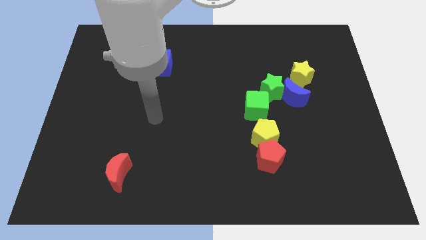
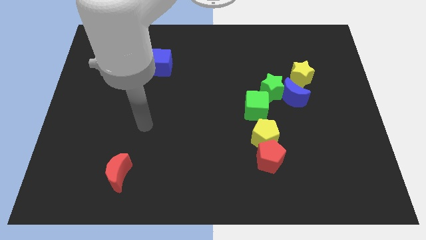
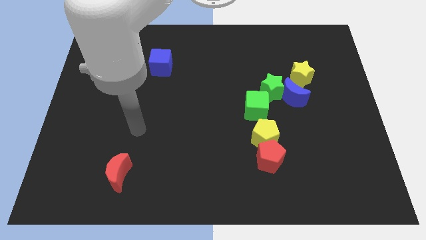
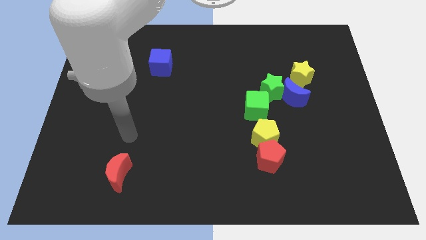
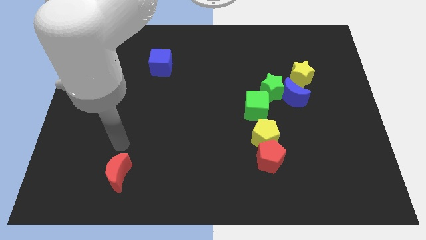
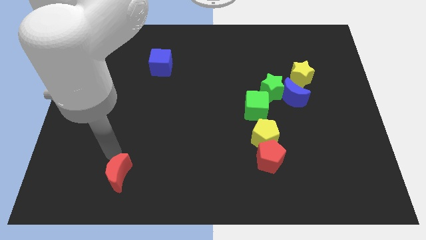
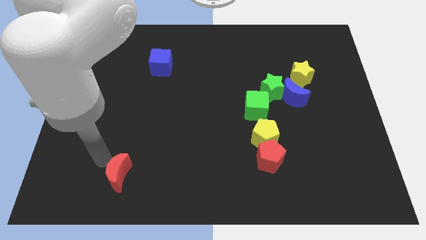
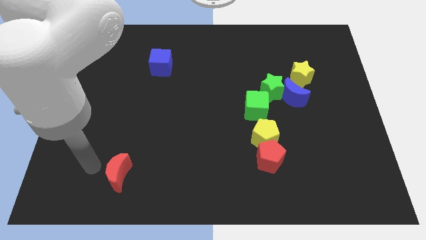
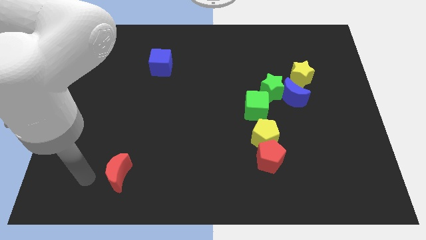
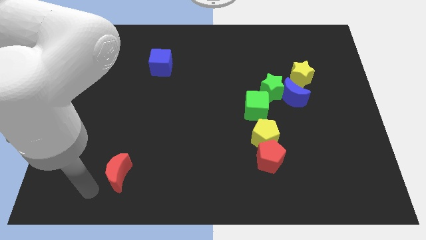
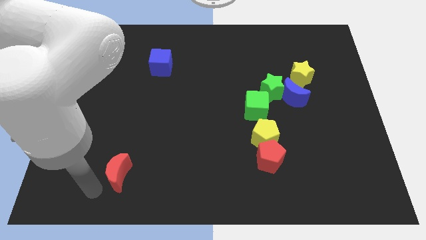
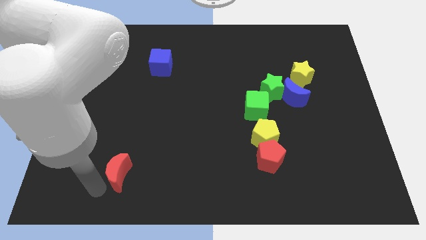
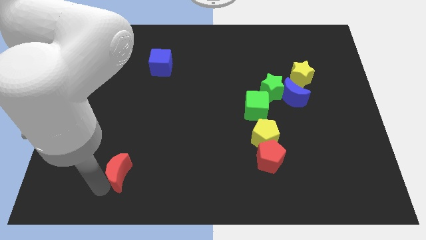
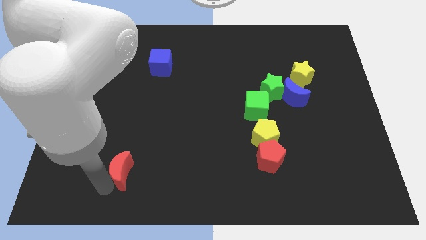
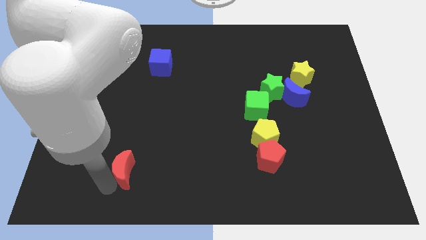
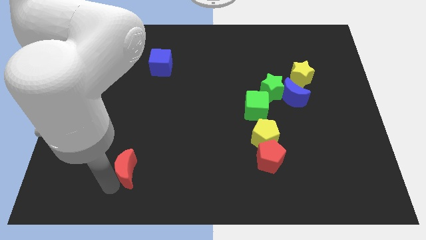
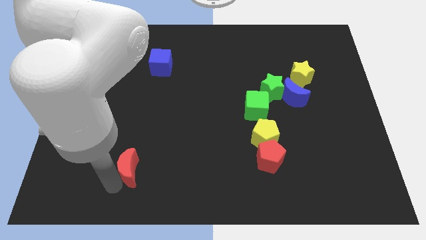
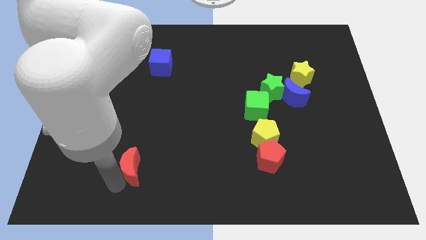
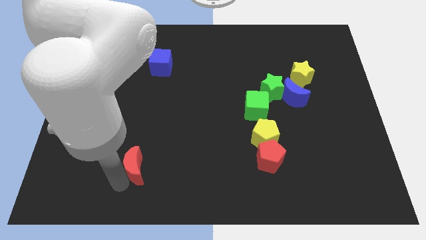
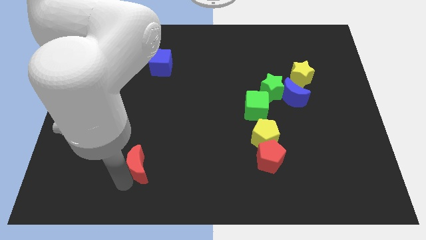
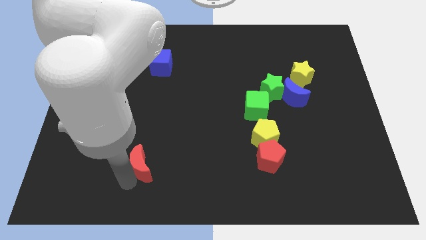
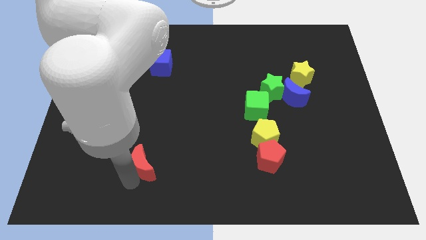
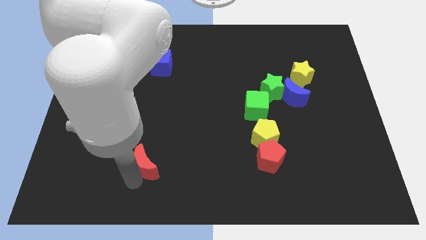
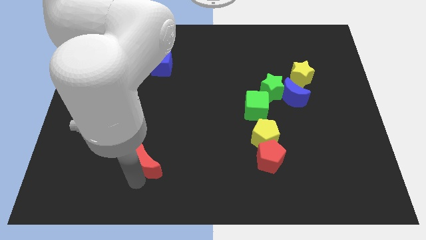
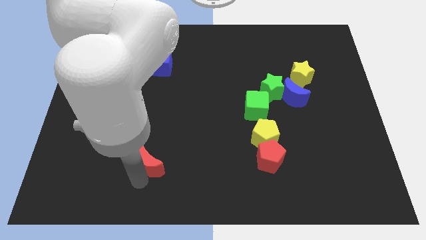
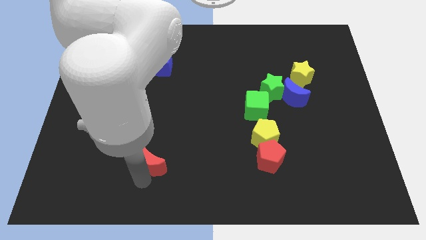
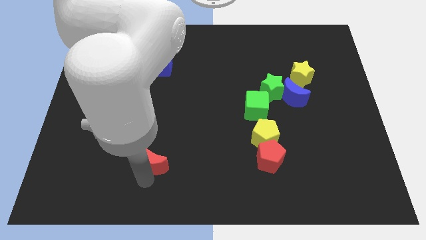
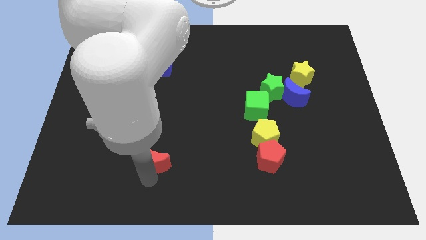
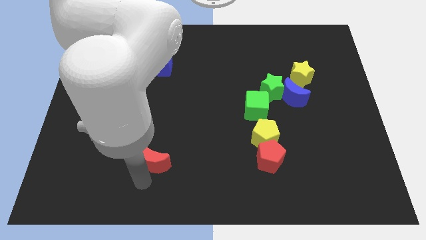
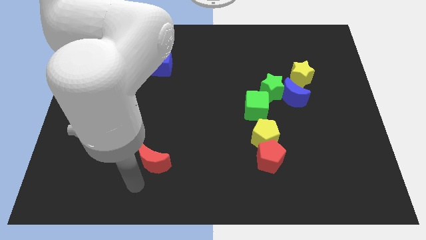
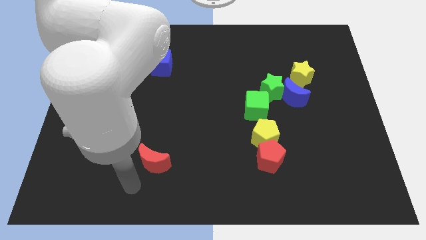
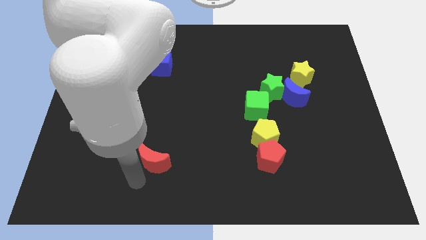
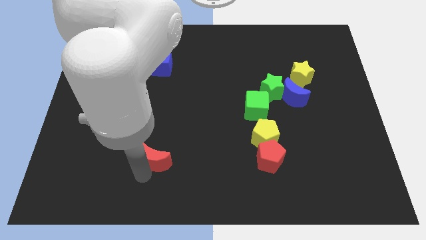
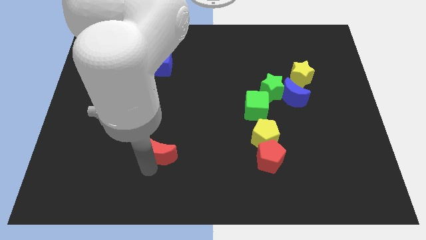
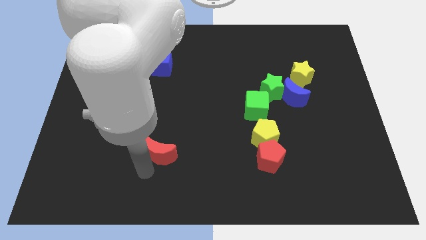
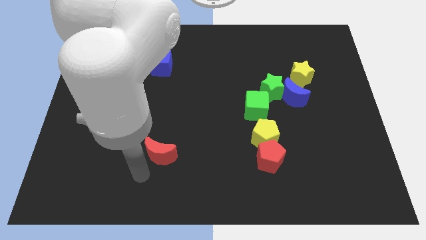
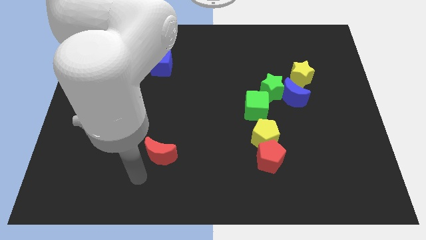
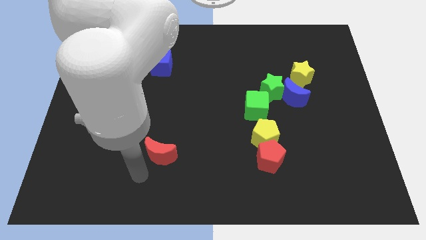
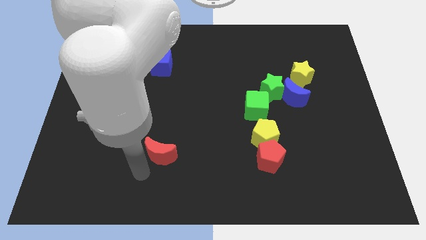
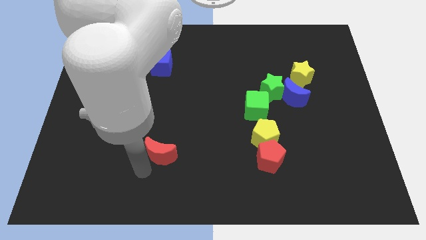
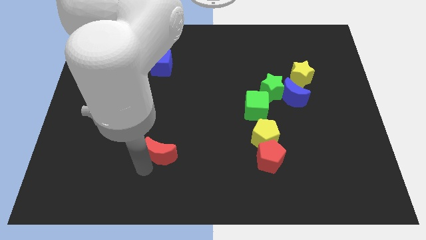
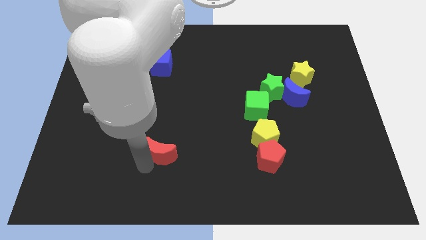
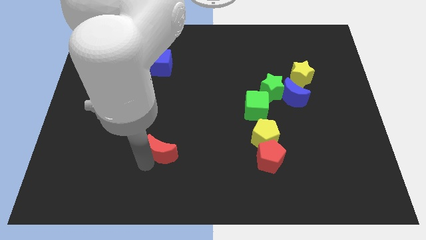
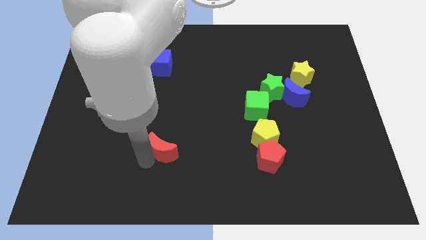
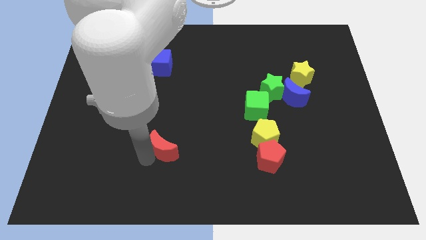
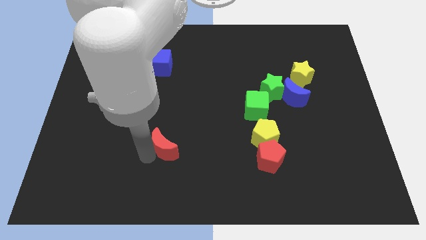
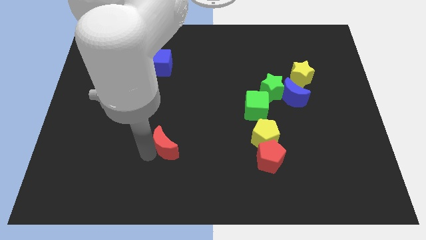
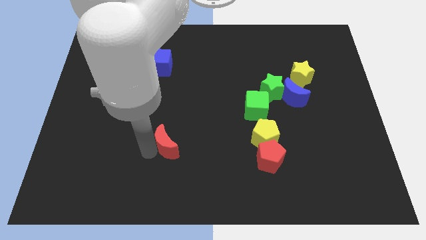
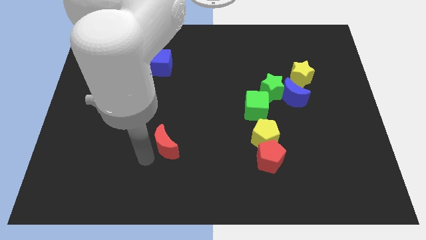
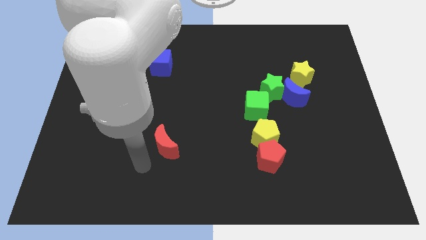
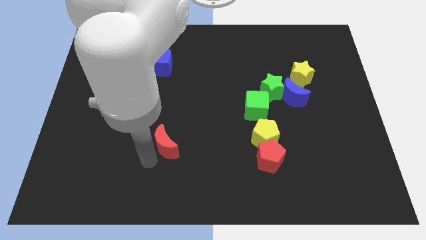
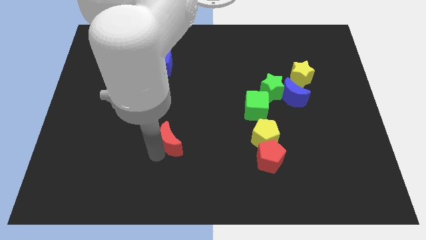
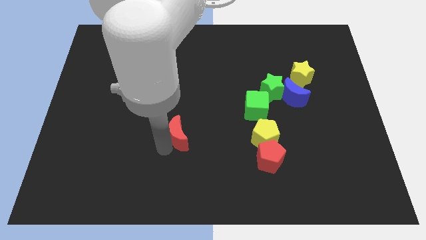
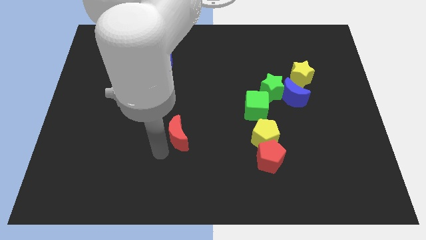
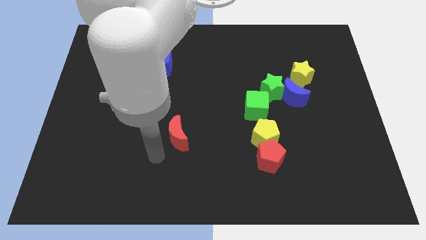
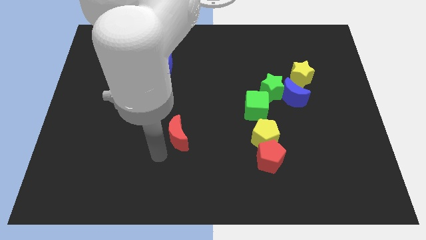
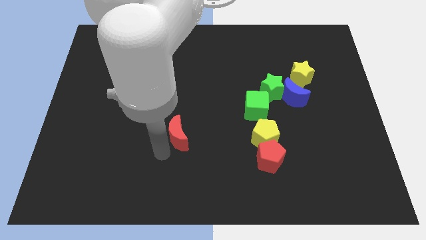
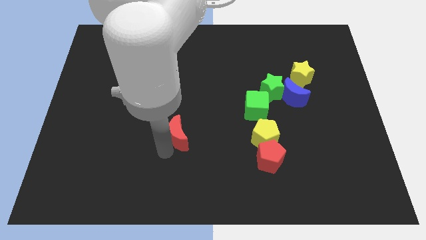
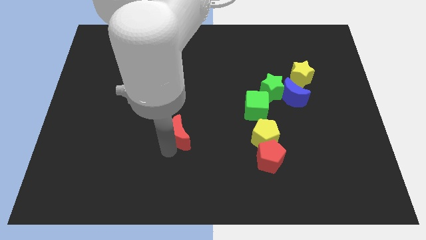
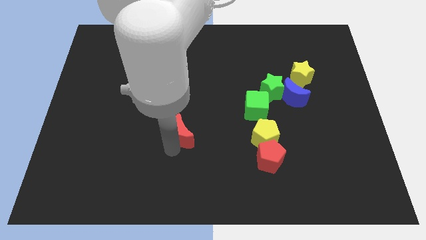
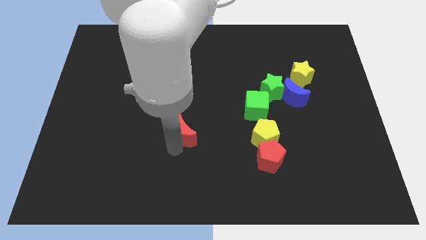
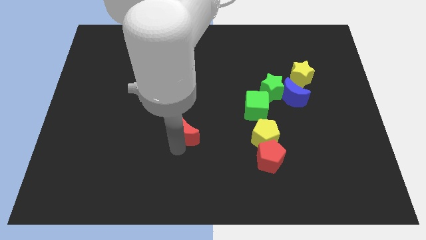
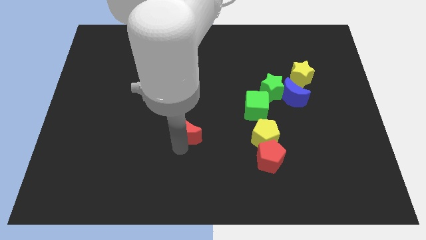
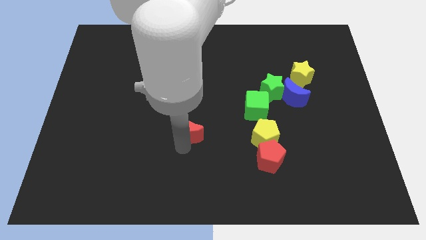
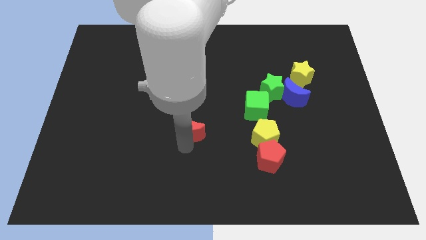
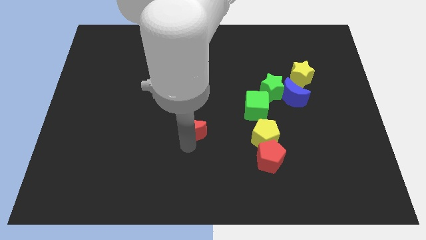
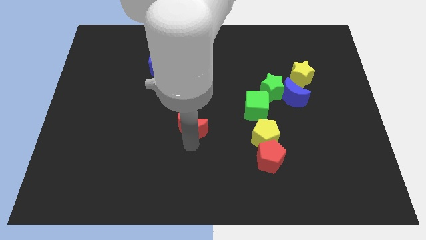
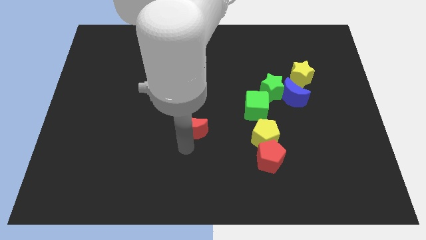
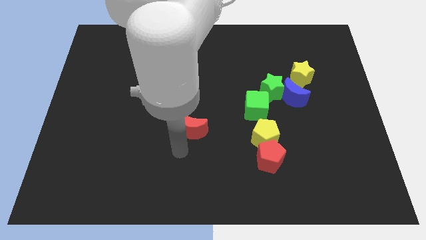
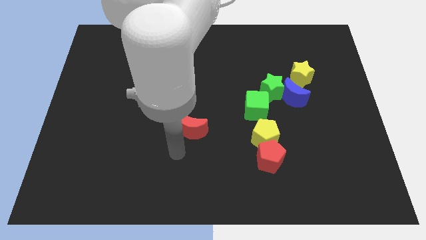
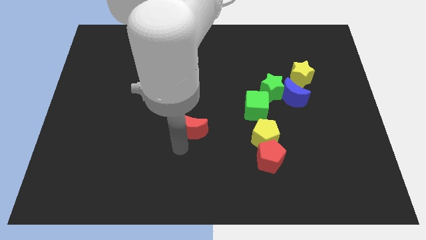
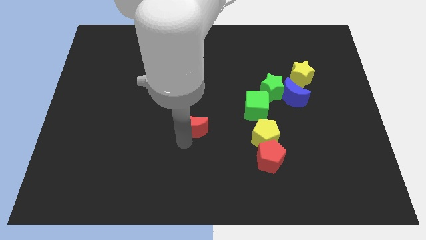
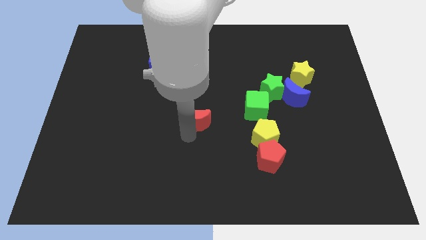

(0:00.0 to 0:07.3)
push the red moon up and right diagonally

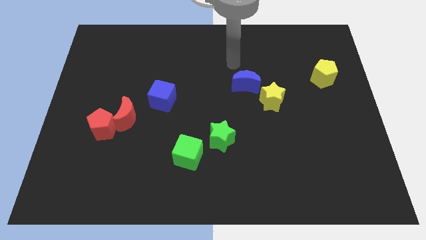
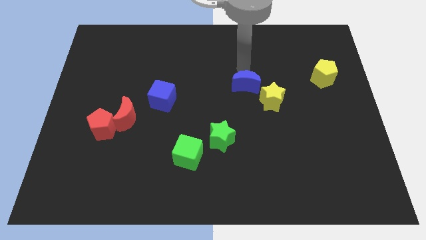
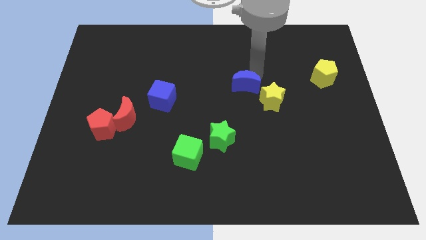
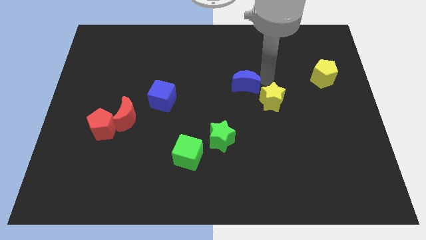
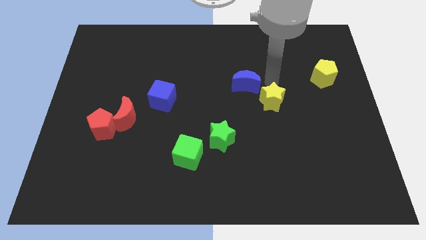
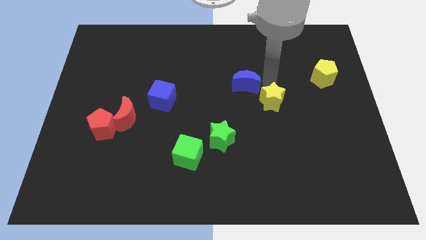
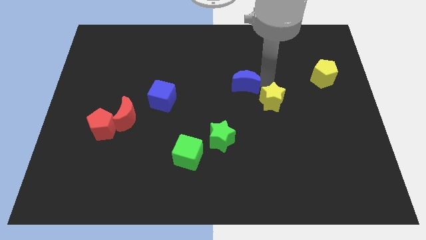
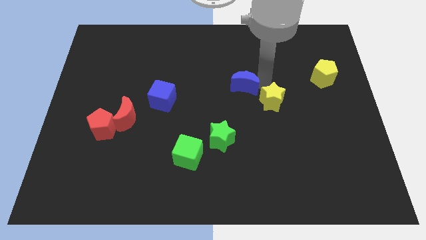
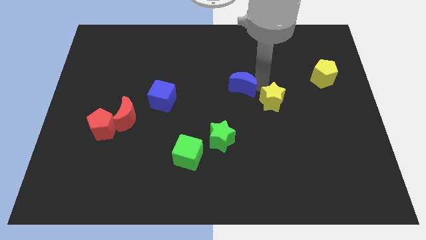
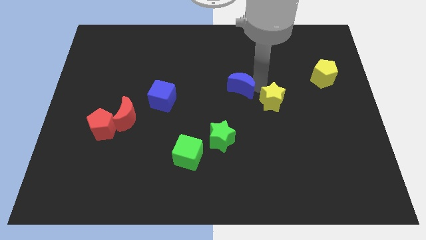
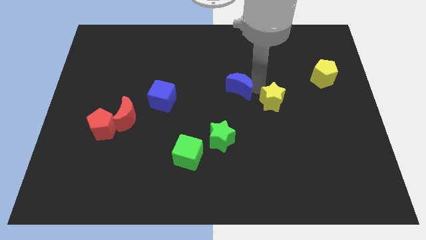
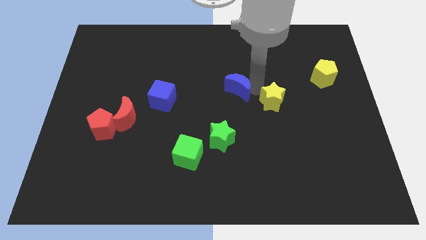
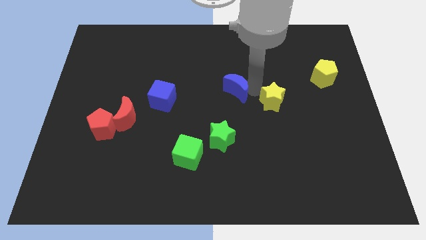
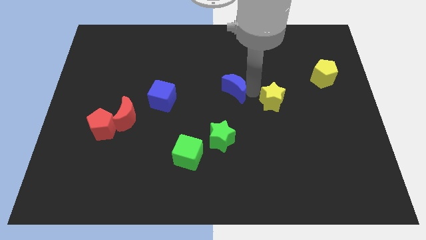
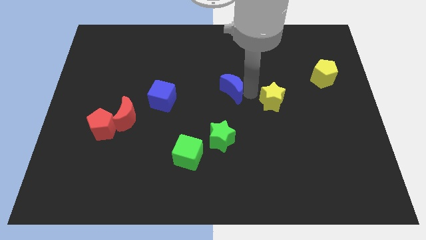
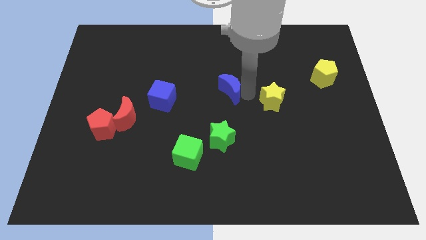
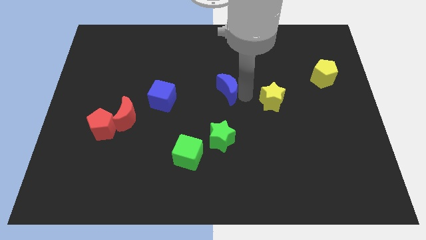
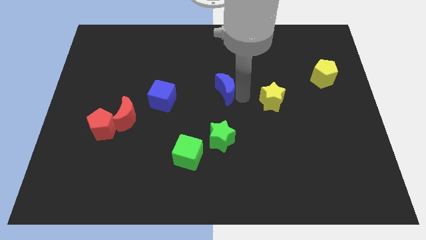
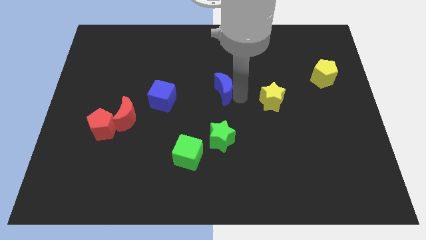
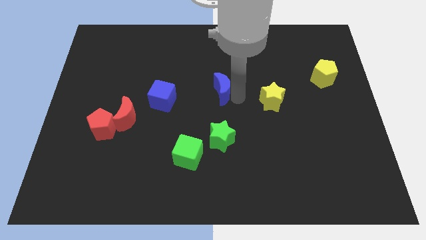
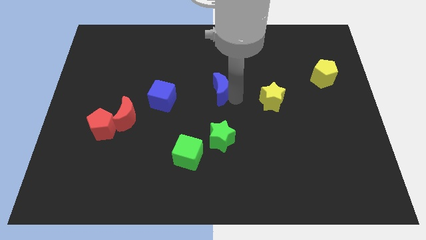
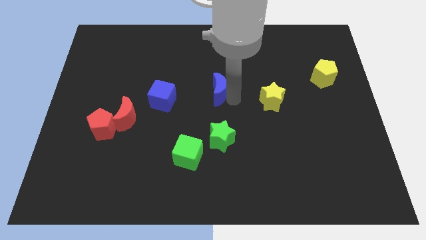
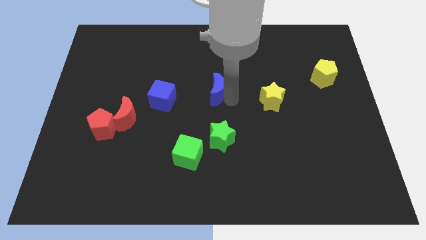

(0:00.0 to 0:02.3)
push the blue moon a little left
